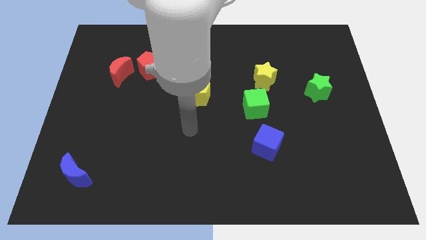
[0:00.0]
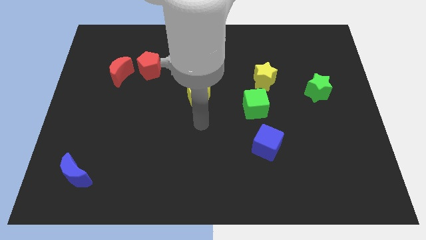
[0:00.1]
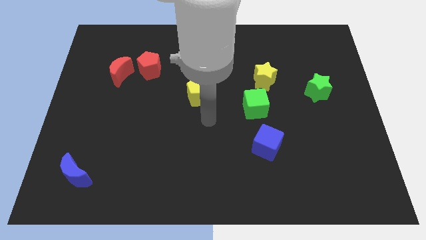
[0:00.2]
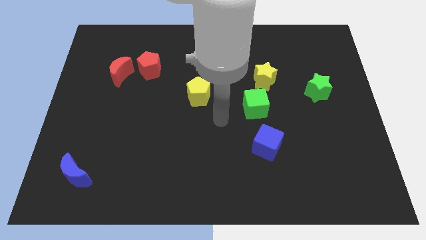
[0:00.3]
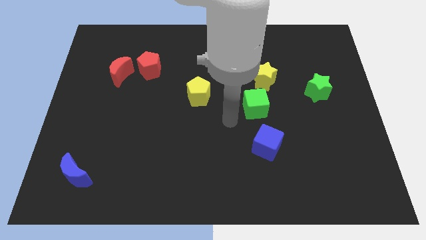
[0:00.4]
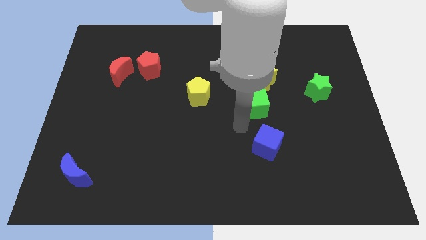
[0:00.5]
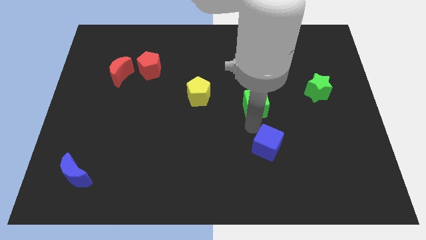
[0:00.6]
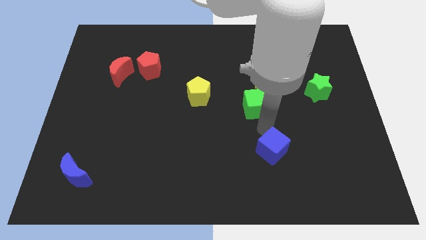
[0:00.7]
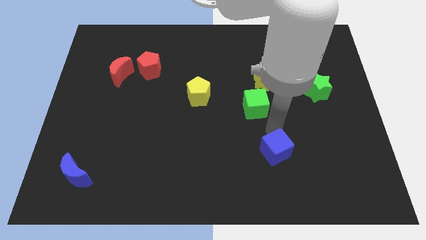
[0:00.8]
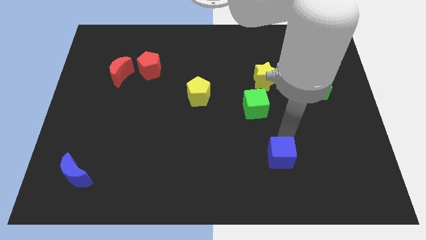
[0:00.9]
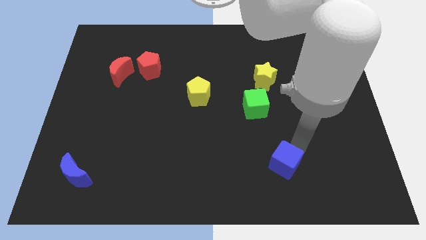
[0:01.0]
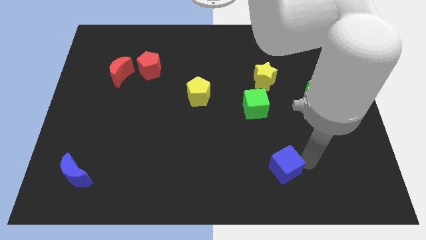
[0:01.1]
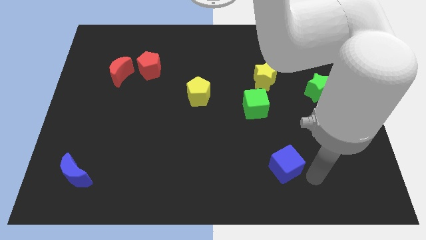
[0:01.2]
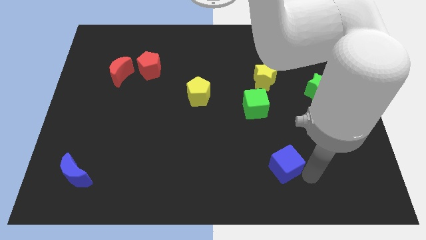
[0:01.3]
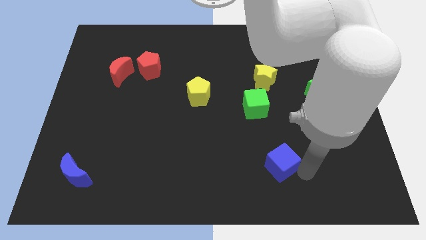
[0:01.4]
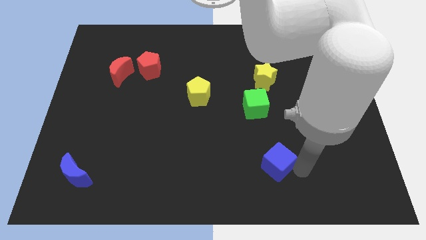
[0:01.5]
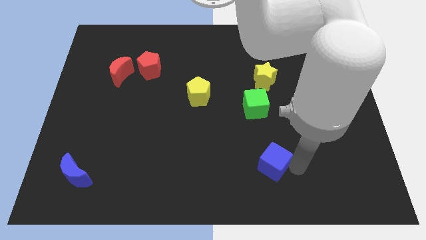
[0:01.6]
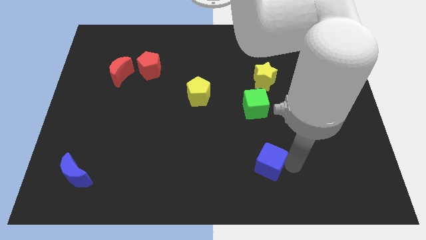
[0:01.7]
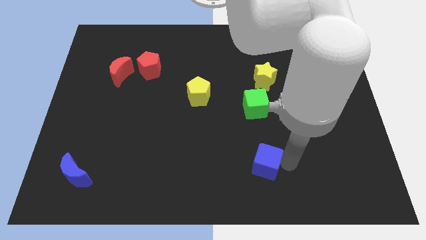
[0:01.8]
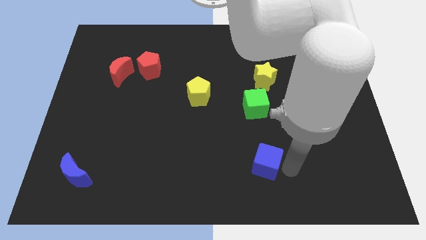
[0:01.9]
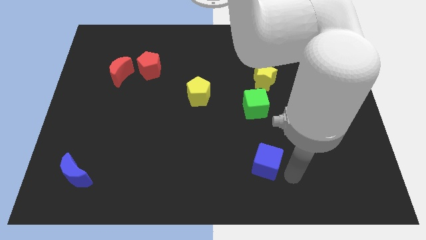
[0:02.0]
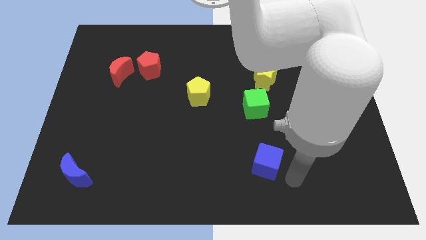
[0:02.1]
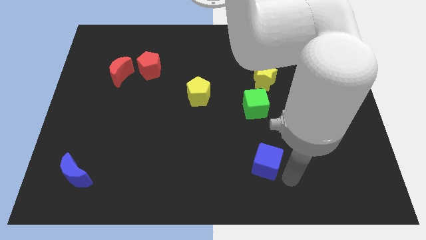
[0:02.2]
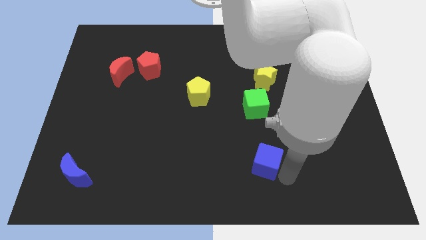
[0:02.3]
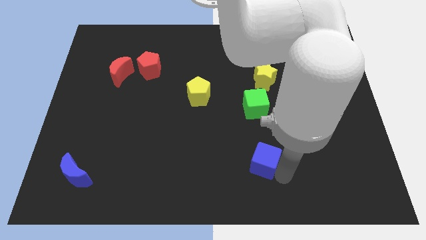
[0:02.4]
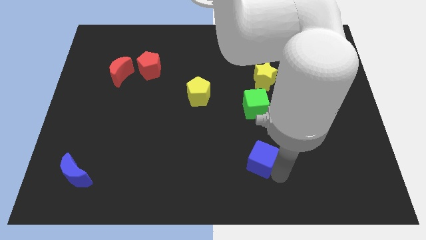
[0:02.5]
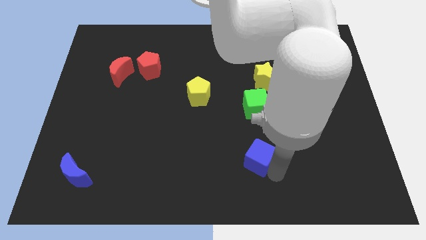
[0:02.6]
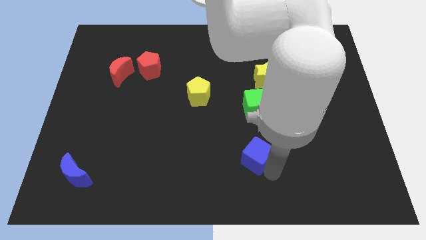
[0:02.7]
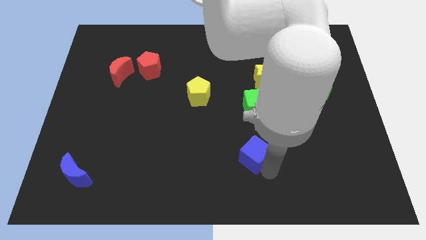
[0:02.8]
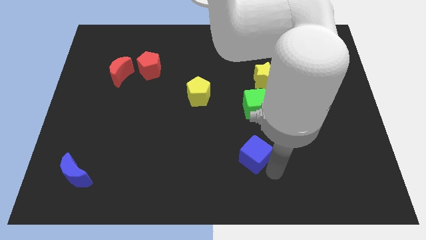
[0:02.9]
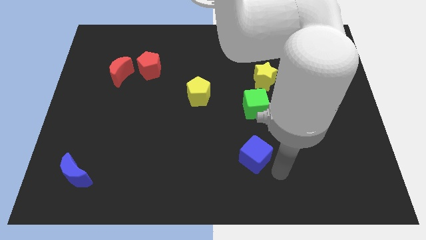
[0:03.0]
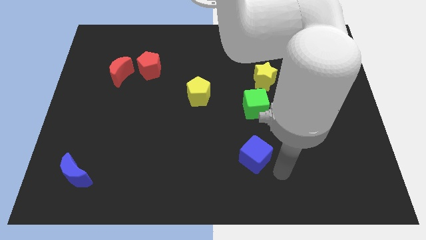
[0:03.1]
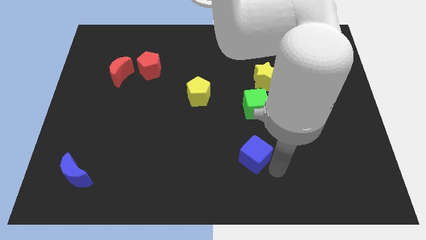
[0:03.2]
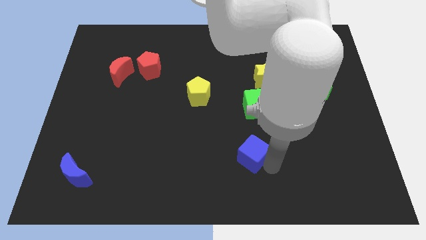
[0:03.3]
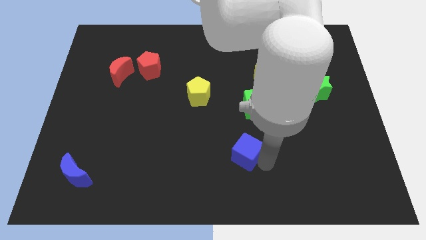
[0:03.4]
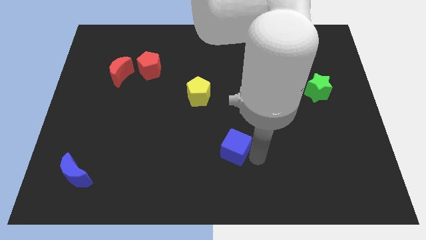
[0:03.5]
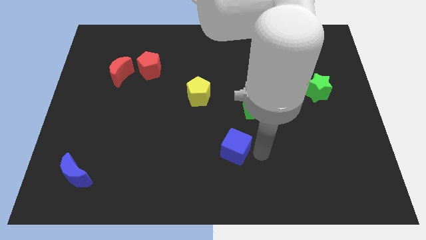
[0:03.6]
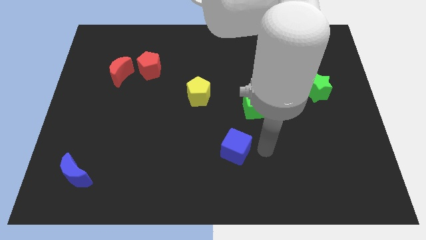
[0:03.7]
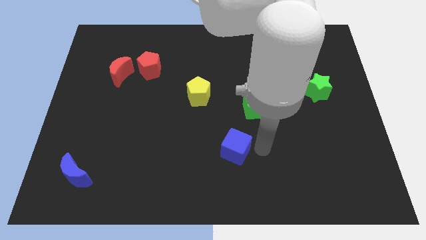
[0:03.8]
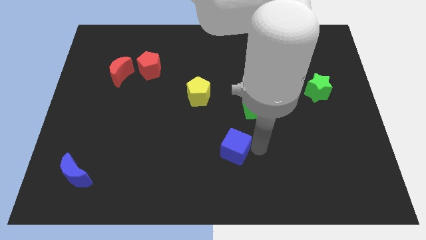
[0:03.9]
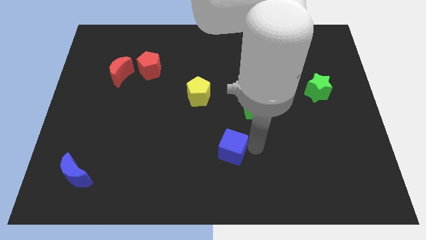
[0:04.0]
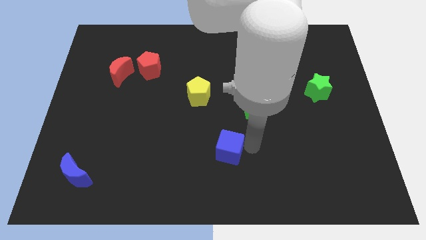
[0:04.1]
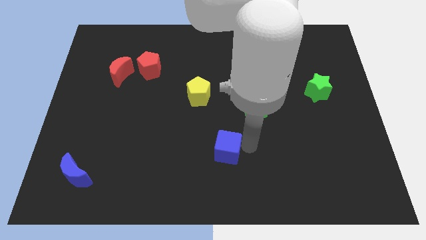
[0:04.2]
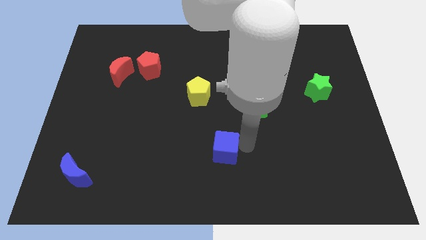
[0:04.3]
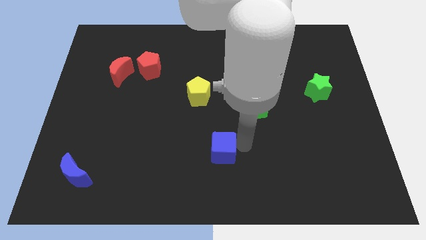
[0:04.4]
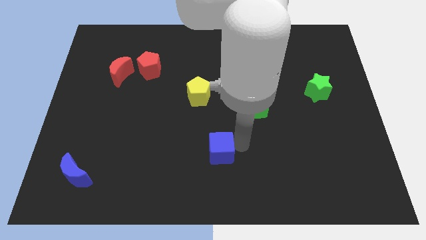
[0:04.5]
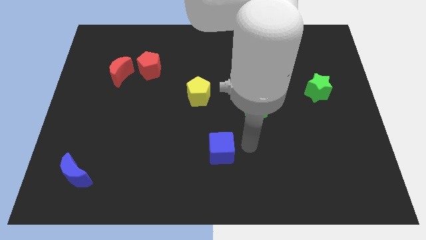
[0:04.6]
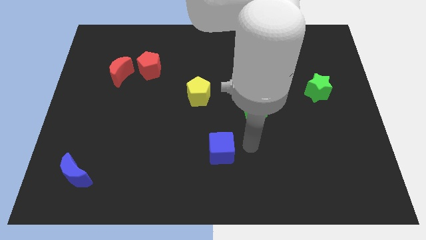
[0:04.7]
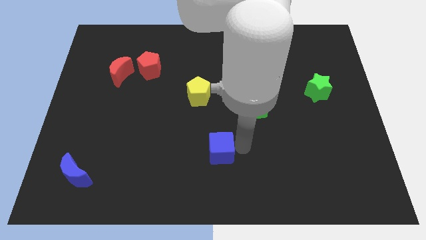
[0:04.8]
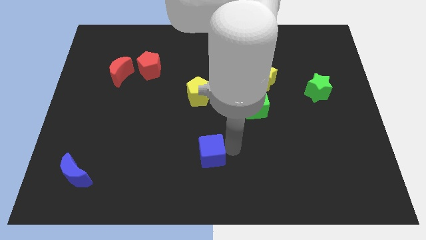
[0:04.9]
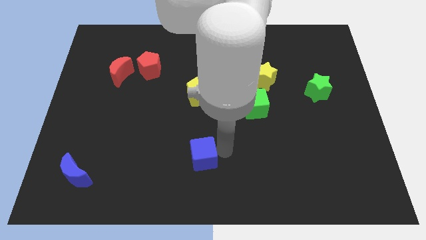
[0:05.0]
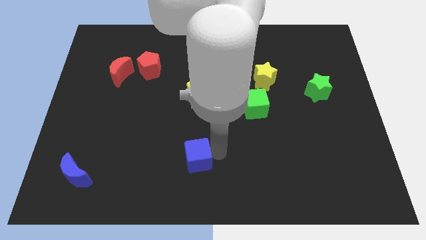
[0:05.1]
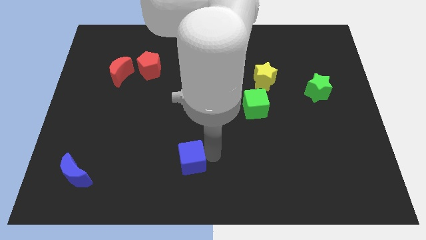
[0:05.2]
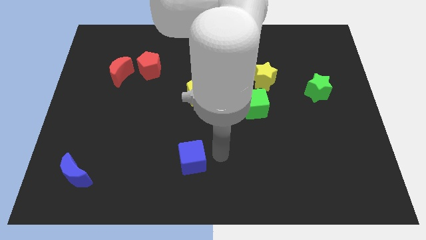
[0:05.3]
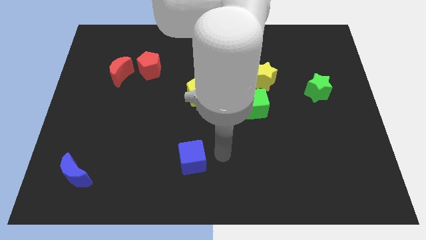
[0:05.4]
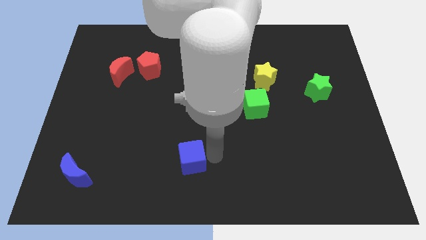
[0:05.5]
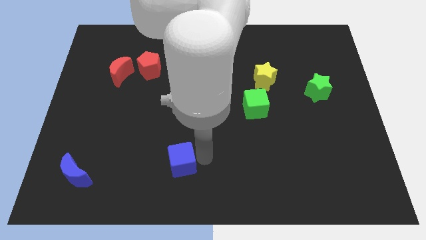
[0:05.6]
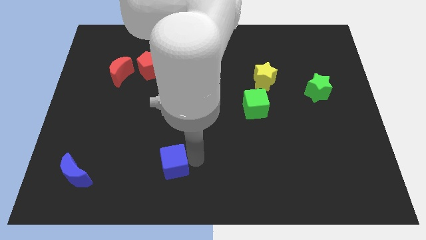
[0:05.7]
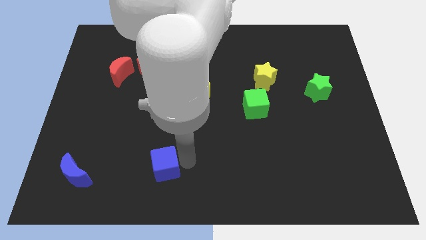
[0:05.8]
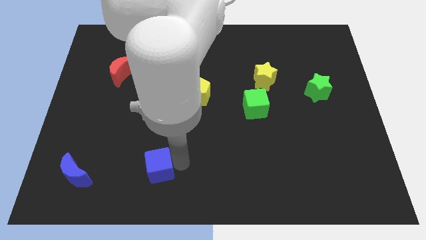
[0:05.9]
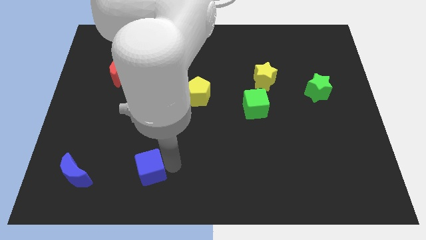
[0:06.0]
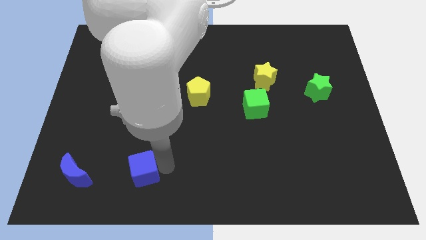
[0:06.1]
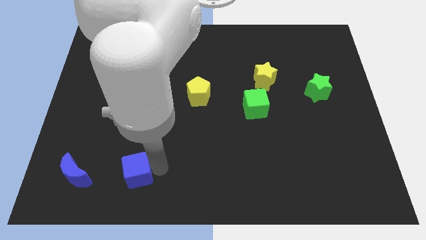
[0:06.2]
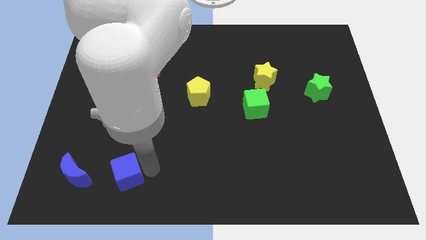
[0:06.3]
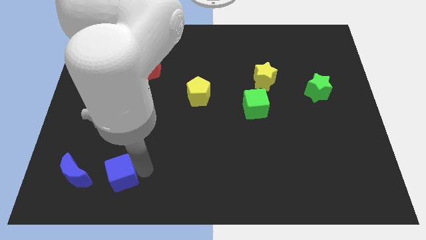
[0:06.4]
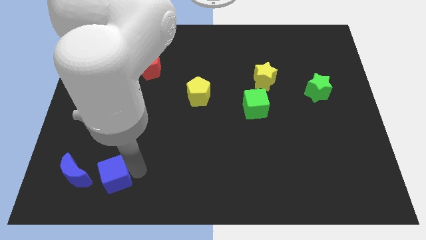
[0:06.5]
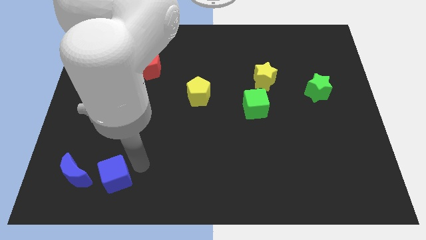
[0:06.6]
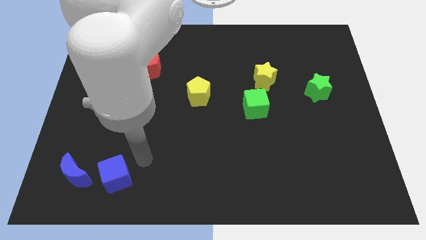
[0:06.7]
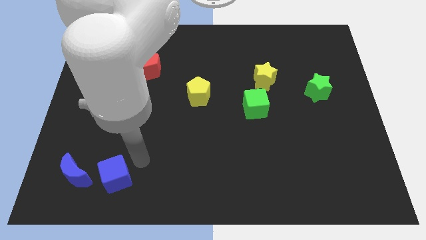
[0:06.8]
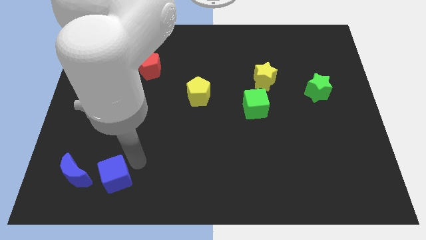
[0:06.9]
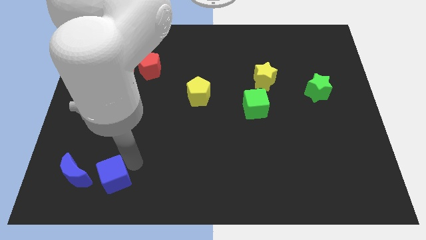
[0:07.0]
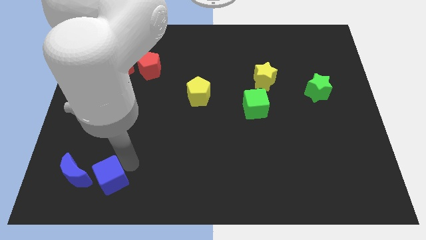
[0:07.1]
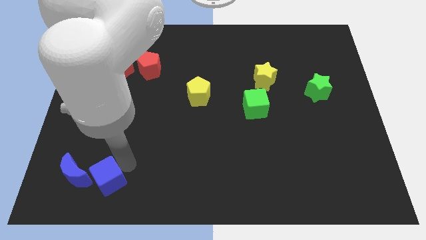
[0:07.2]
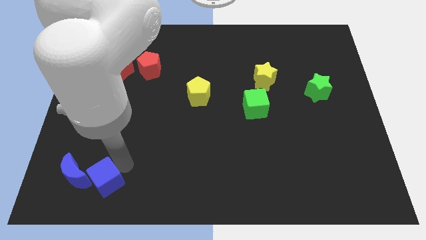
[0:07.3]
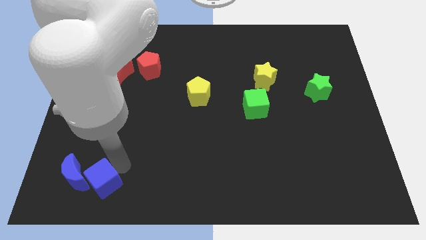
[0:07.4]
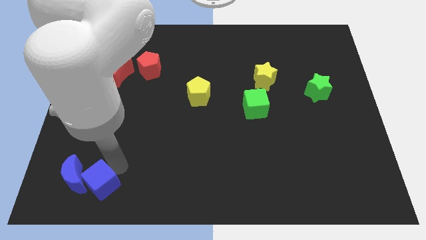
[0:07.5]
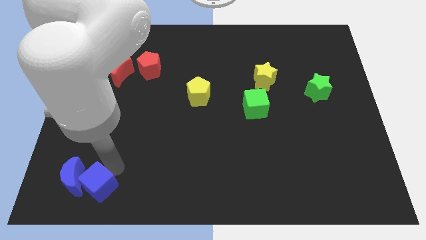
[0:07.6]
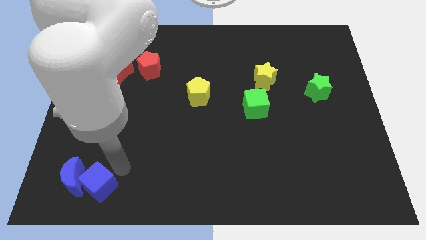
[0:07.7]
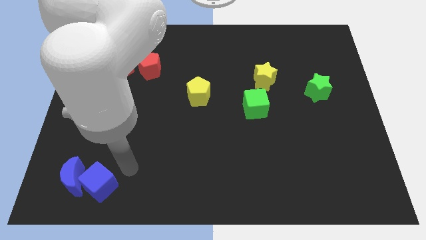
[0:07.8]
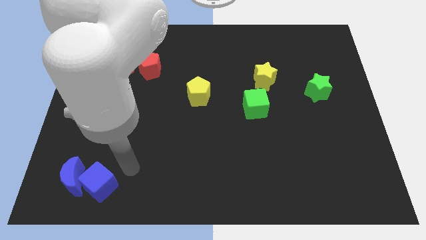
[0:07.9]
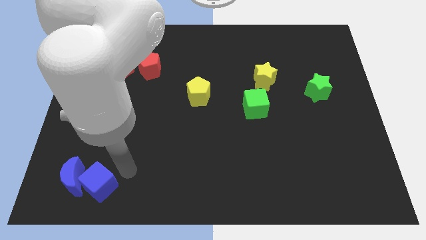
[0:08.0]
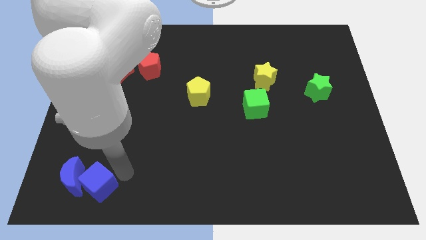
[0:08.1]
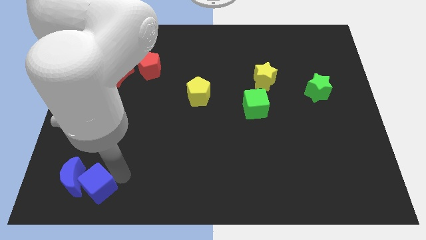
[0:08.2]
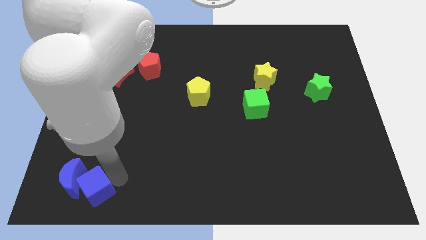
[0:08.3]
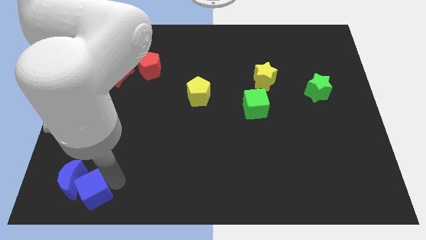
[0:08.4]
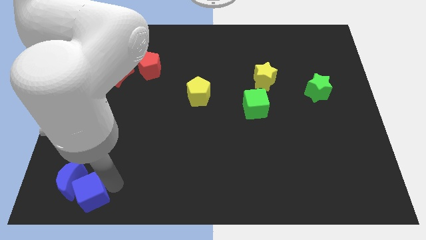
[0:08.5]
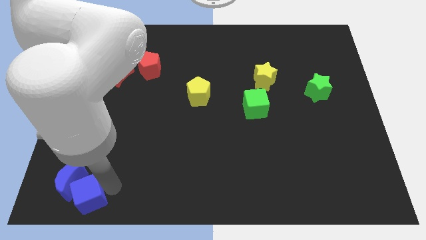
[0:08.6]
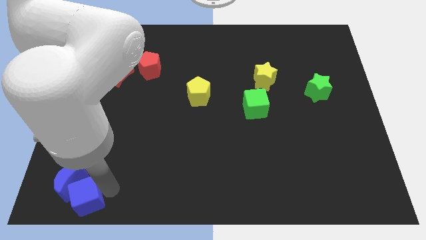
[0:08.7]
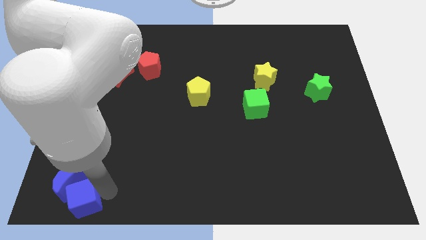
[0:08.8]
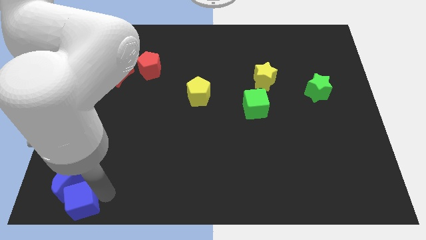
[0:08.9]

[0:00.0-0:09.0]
put the blue cube to the lower left corner
